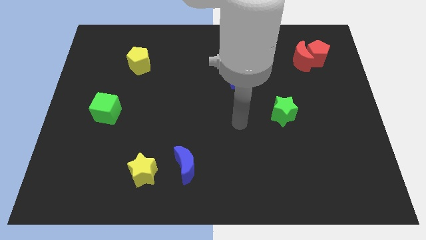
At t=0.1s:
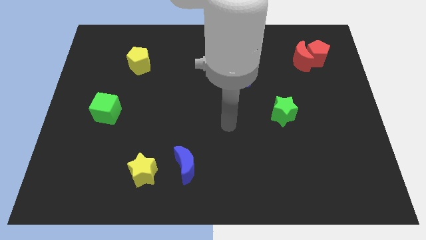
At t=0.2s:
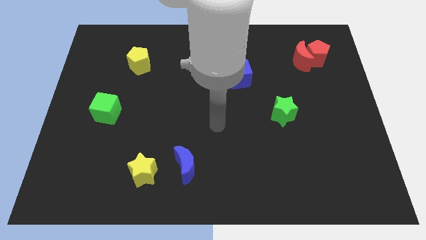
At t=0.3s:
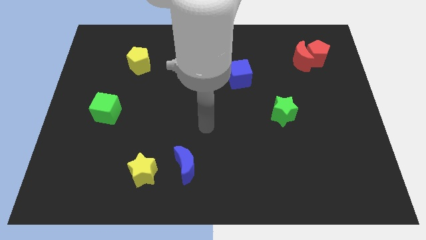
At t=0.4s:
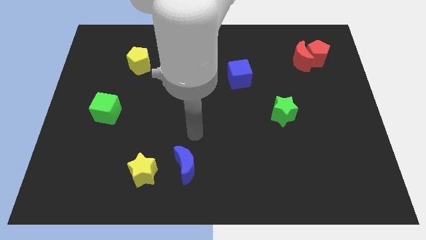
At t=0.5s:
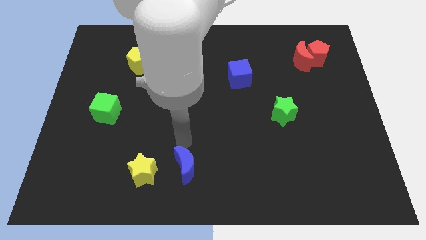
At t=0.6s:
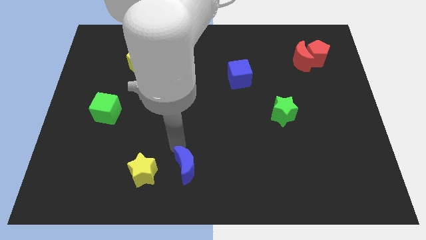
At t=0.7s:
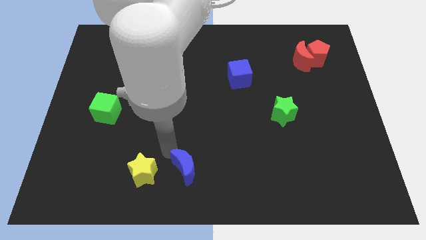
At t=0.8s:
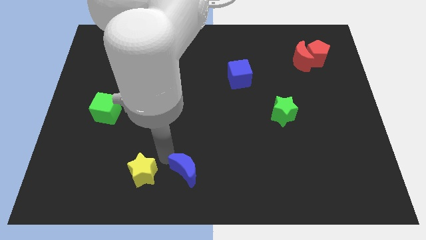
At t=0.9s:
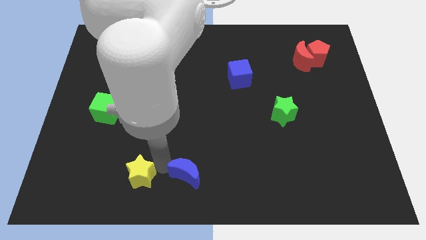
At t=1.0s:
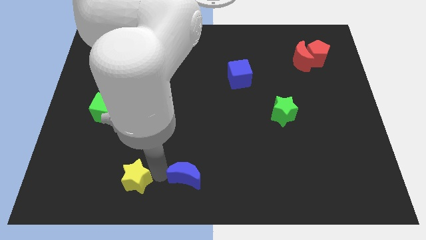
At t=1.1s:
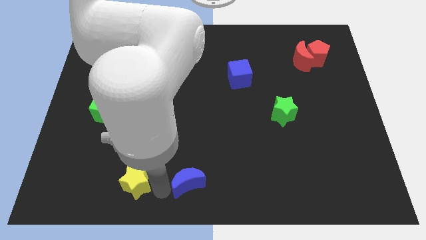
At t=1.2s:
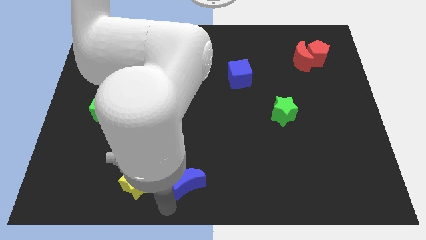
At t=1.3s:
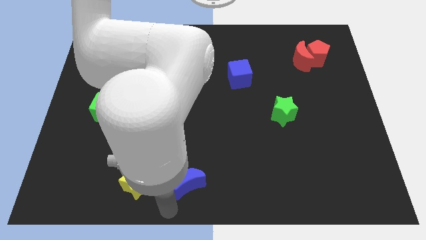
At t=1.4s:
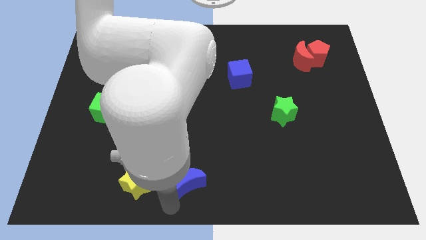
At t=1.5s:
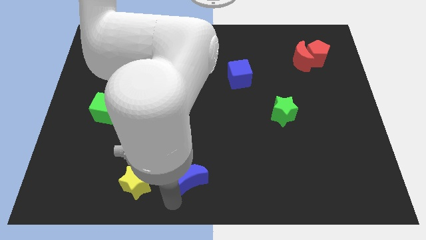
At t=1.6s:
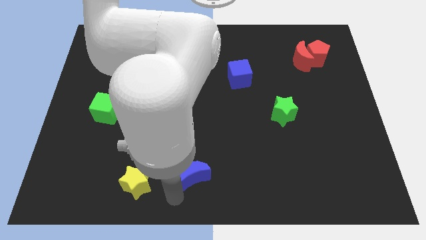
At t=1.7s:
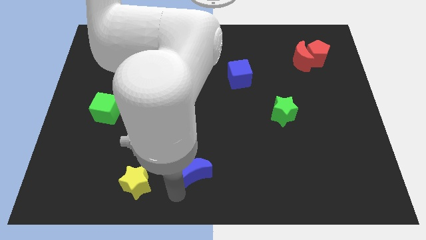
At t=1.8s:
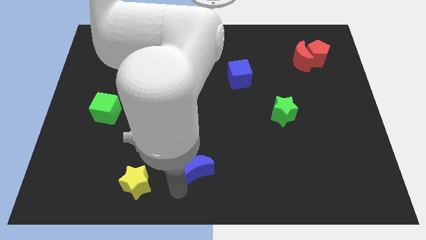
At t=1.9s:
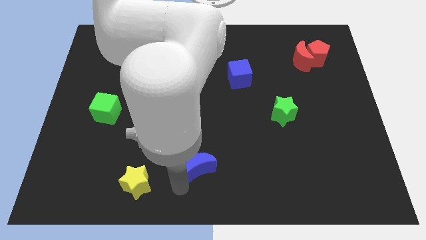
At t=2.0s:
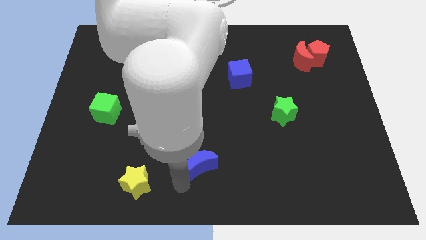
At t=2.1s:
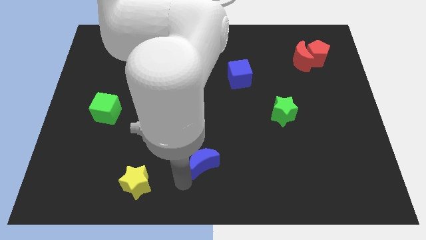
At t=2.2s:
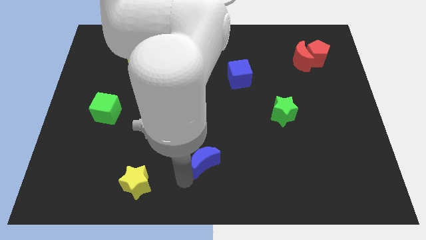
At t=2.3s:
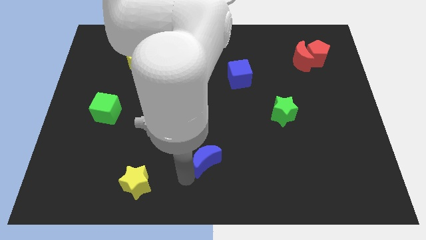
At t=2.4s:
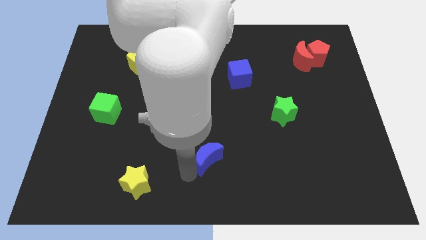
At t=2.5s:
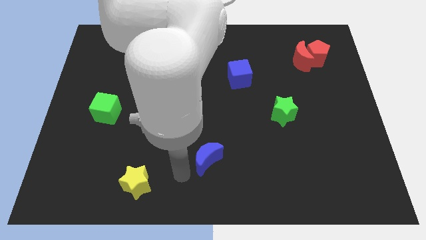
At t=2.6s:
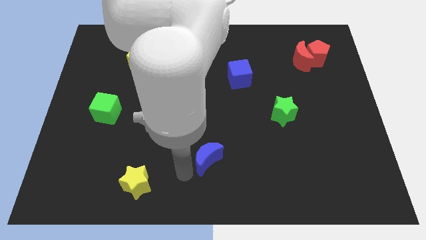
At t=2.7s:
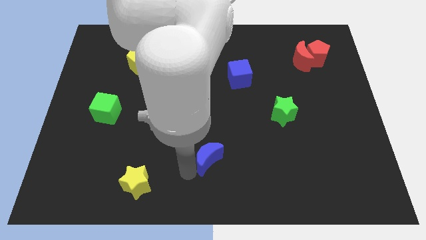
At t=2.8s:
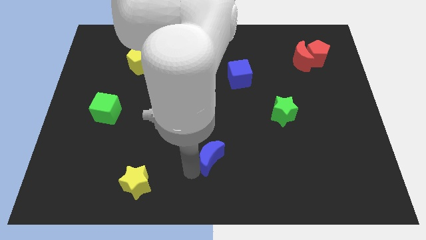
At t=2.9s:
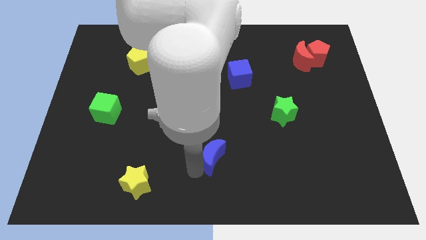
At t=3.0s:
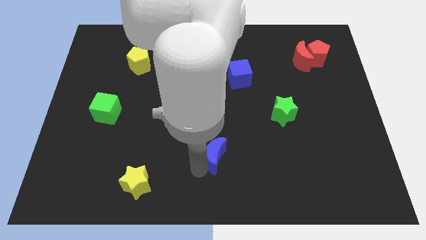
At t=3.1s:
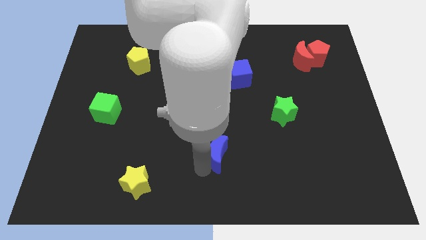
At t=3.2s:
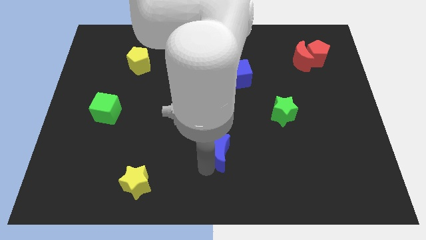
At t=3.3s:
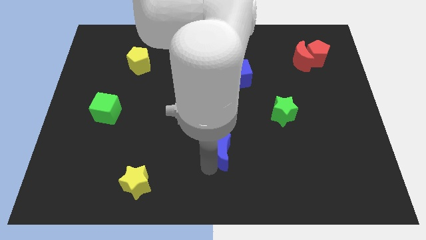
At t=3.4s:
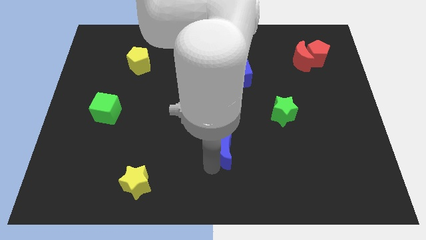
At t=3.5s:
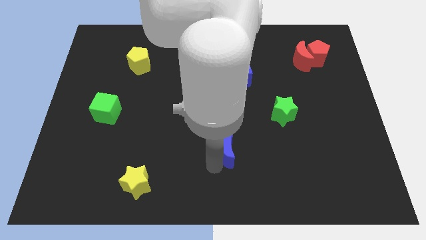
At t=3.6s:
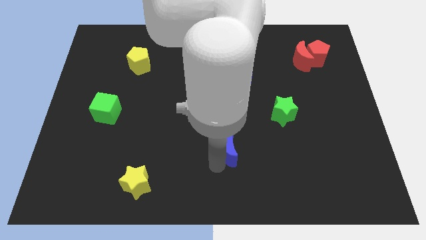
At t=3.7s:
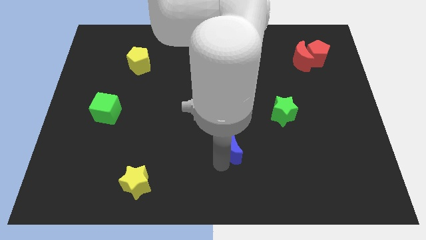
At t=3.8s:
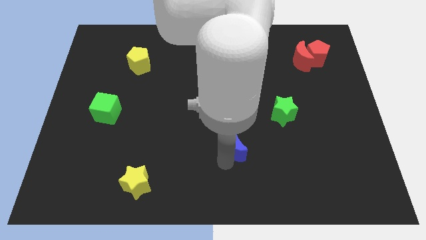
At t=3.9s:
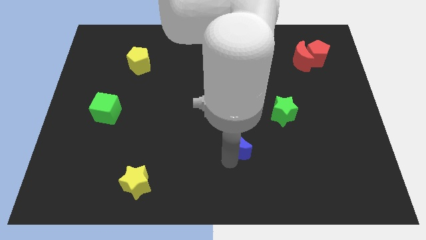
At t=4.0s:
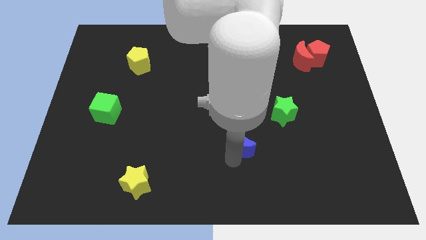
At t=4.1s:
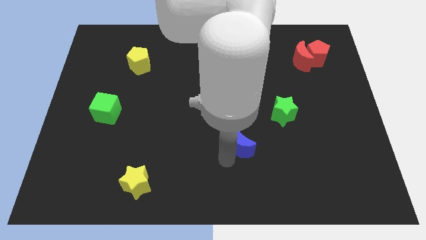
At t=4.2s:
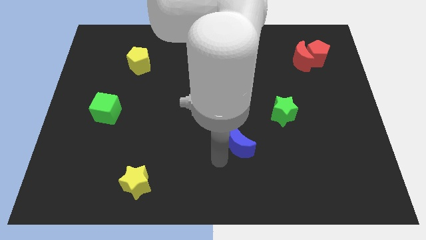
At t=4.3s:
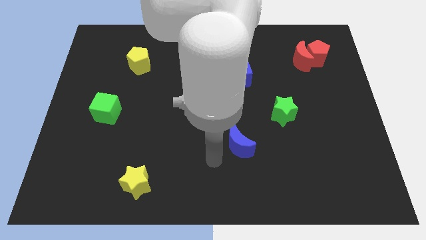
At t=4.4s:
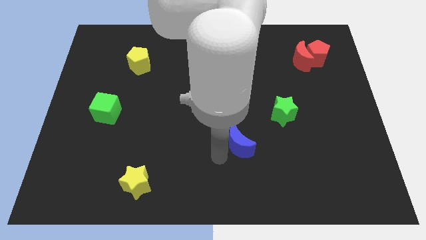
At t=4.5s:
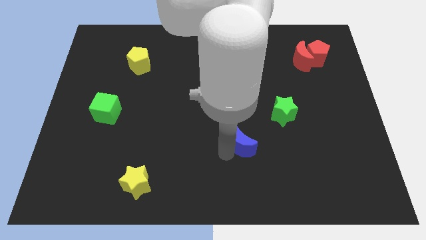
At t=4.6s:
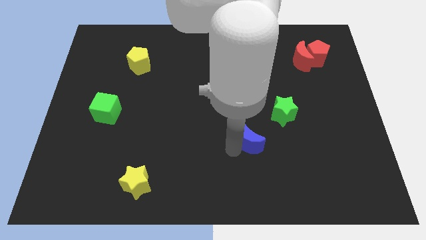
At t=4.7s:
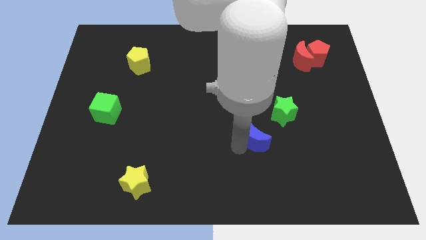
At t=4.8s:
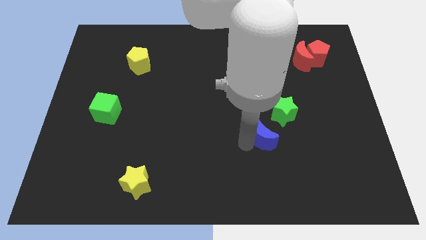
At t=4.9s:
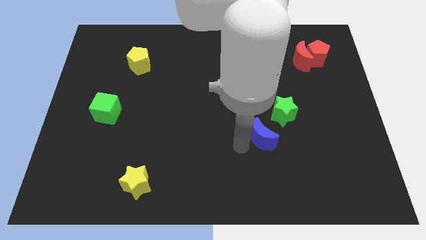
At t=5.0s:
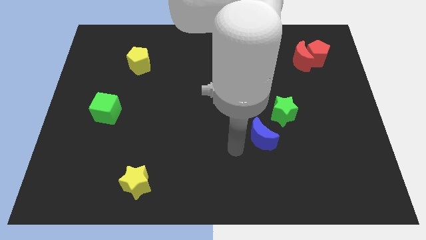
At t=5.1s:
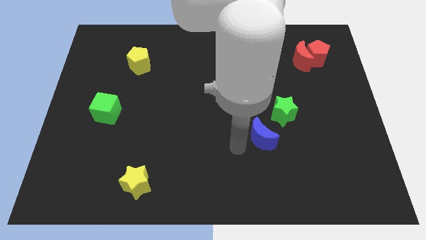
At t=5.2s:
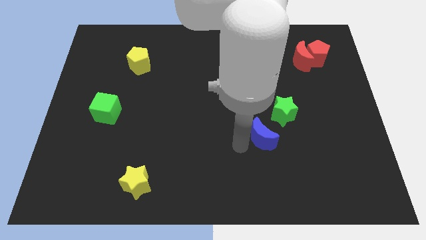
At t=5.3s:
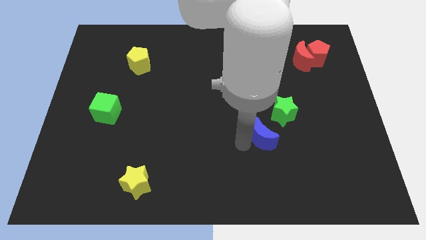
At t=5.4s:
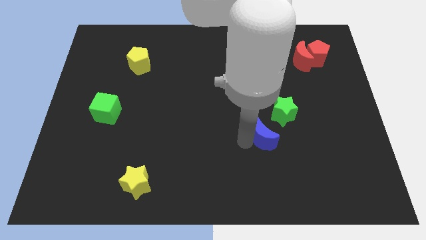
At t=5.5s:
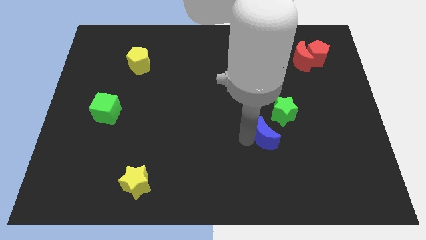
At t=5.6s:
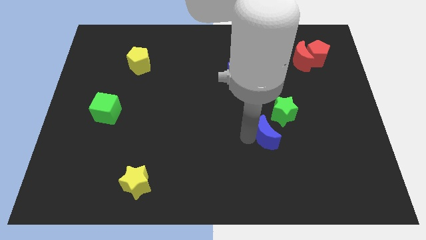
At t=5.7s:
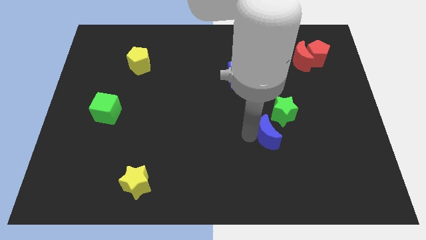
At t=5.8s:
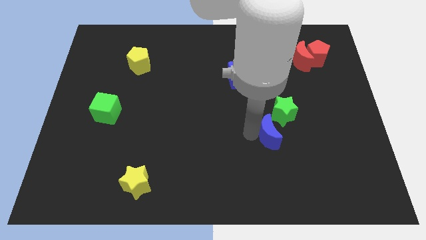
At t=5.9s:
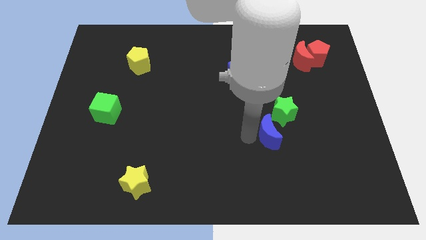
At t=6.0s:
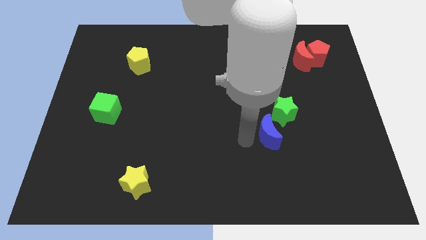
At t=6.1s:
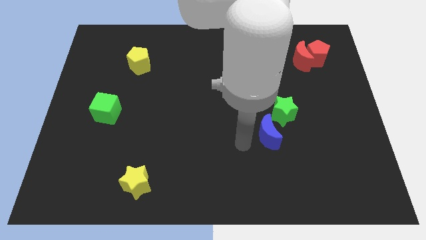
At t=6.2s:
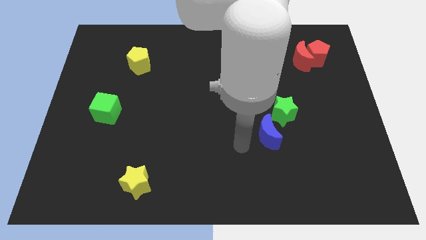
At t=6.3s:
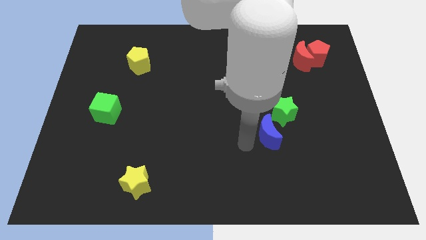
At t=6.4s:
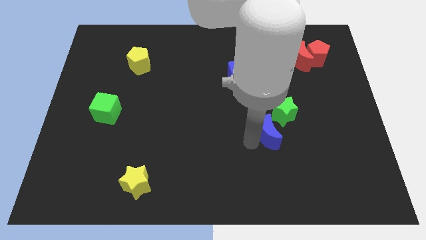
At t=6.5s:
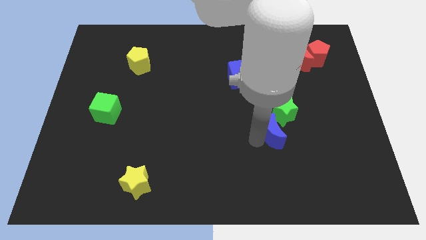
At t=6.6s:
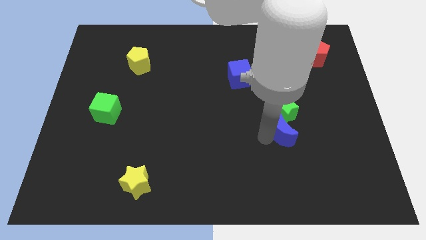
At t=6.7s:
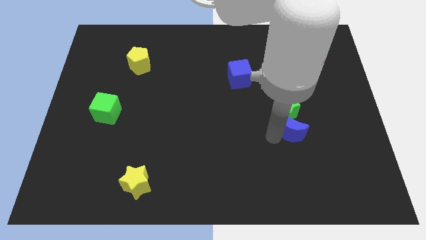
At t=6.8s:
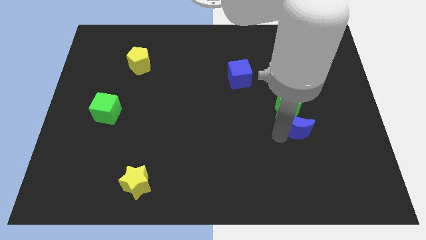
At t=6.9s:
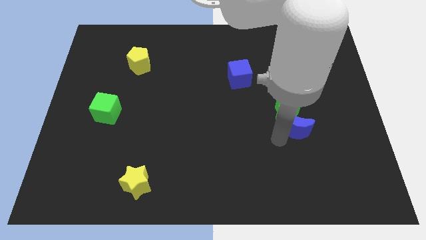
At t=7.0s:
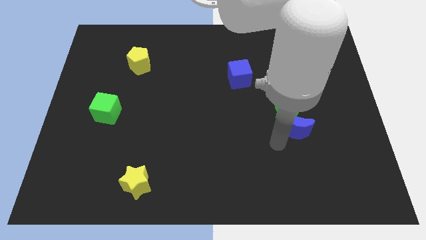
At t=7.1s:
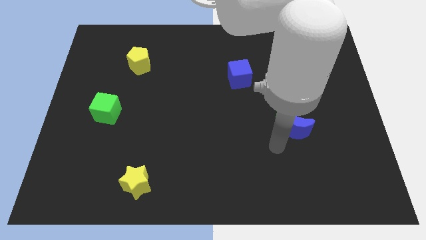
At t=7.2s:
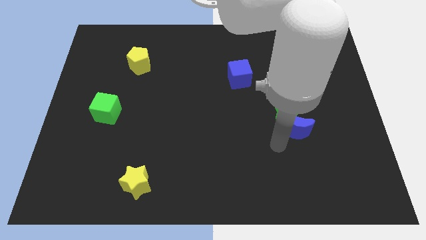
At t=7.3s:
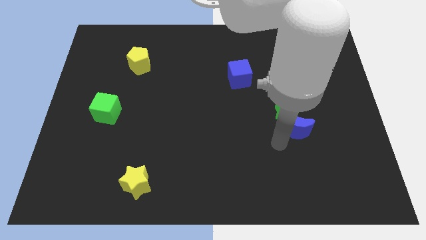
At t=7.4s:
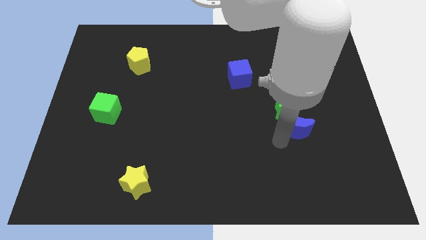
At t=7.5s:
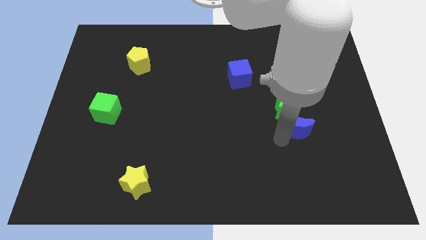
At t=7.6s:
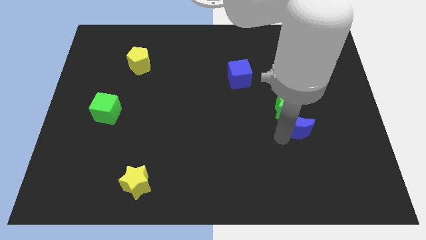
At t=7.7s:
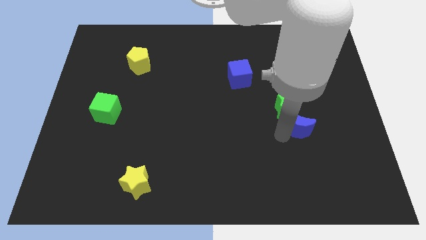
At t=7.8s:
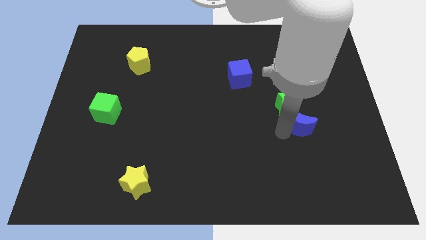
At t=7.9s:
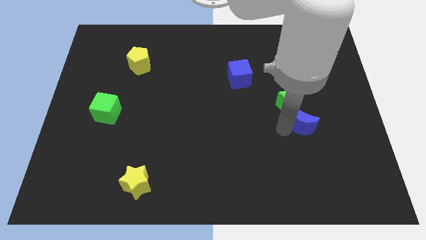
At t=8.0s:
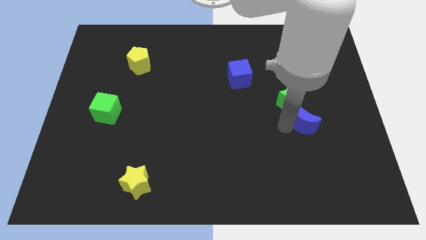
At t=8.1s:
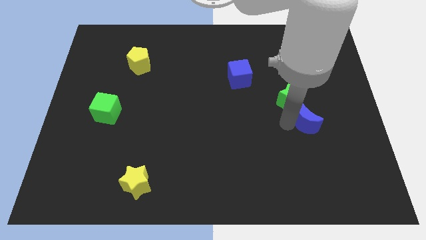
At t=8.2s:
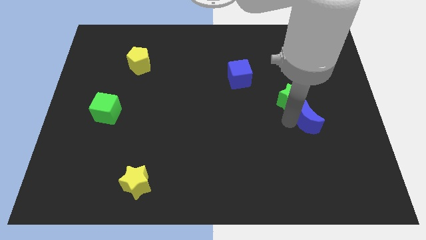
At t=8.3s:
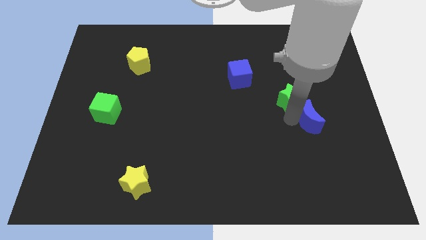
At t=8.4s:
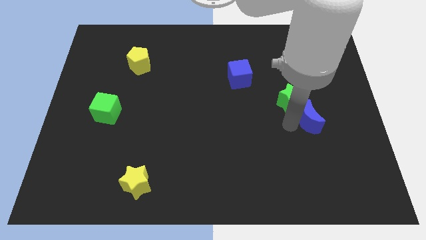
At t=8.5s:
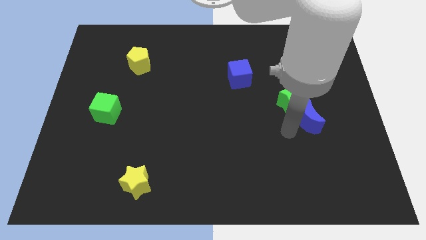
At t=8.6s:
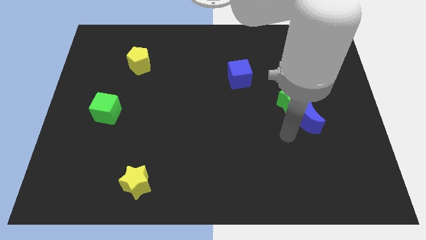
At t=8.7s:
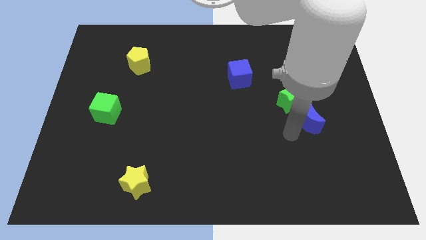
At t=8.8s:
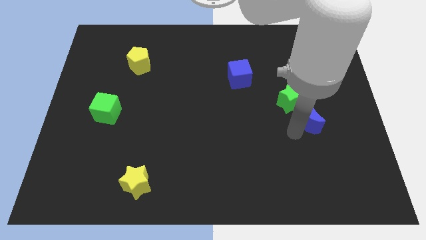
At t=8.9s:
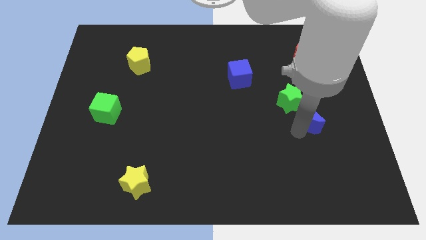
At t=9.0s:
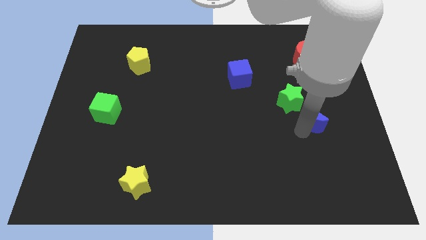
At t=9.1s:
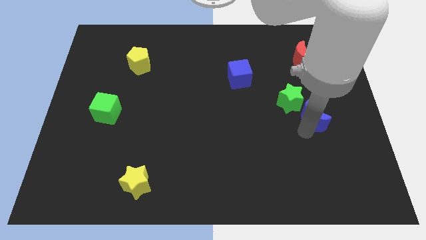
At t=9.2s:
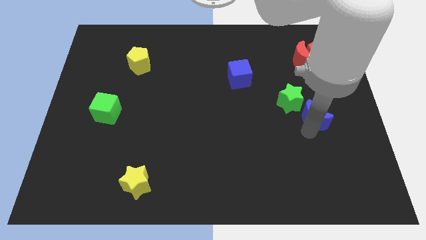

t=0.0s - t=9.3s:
slide the blue moon to the right side of the green star
